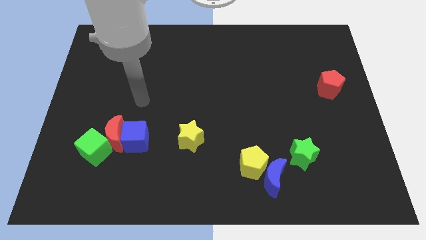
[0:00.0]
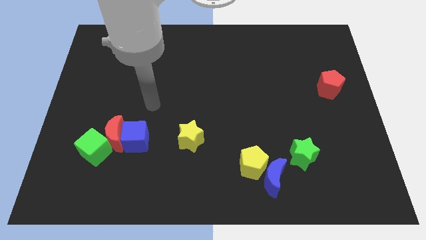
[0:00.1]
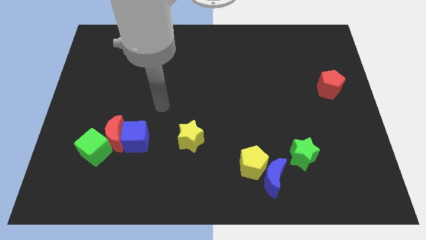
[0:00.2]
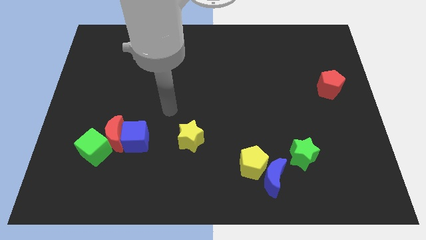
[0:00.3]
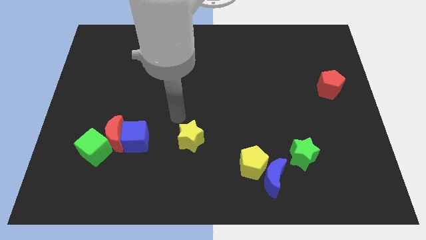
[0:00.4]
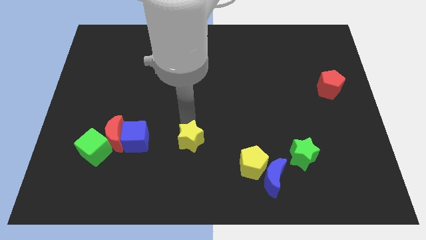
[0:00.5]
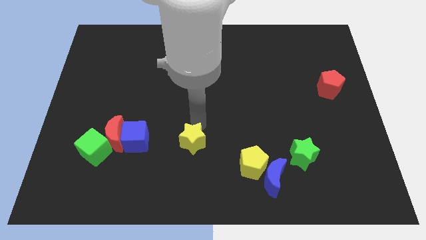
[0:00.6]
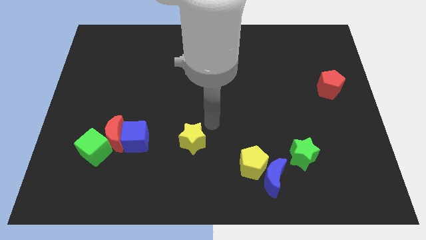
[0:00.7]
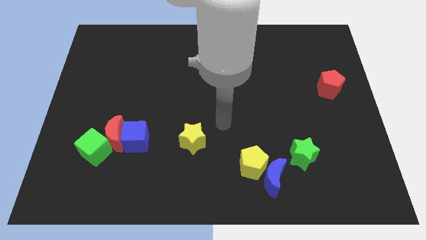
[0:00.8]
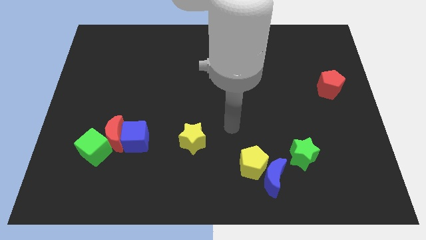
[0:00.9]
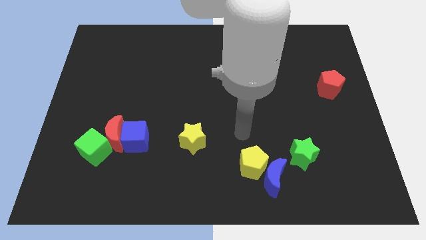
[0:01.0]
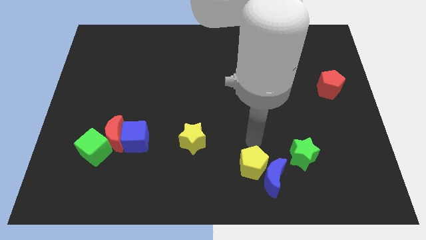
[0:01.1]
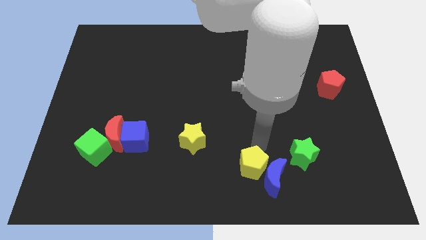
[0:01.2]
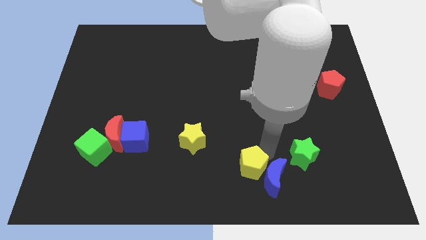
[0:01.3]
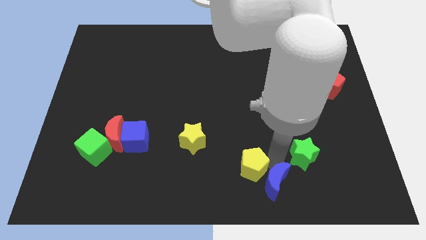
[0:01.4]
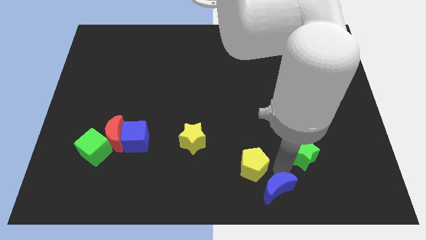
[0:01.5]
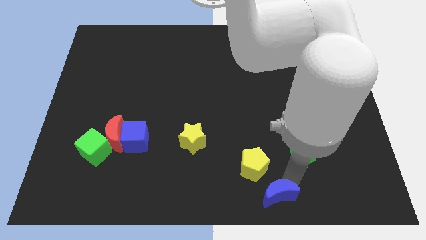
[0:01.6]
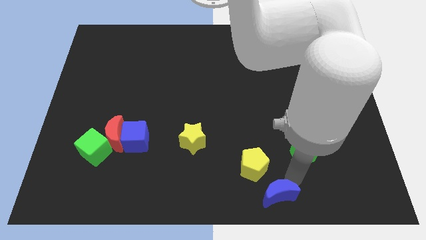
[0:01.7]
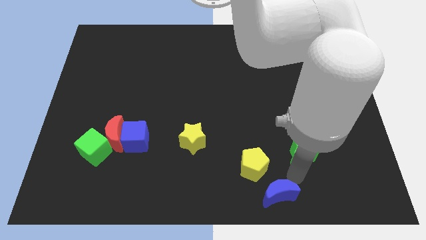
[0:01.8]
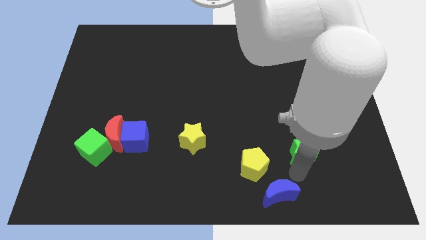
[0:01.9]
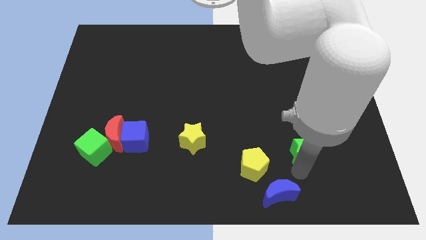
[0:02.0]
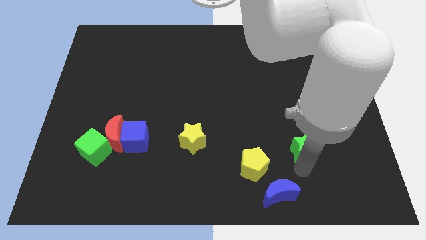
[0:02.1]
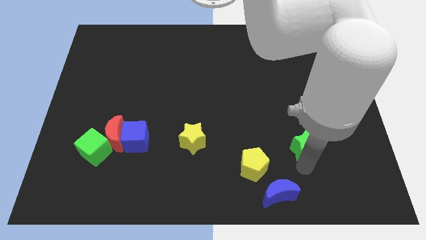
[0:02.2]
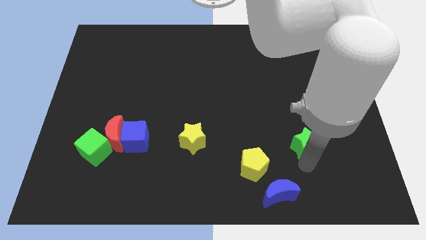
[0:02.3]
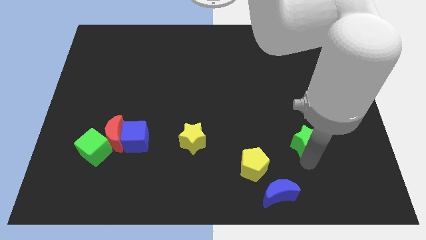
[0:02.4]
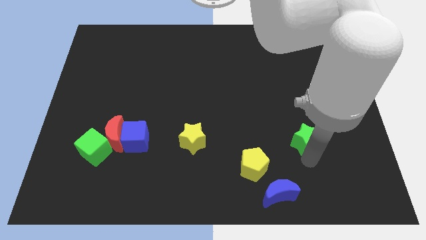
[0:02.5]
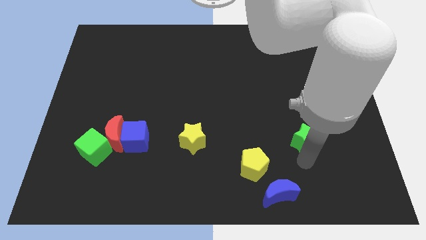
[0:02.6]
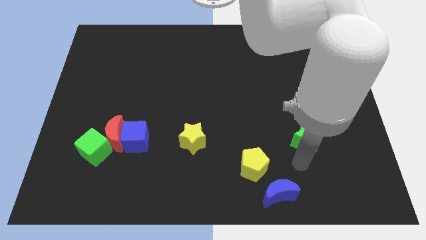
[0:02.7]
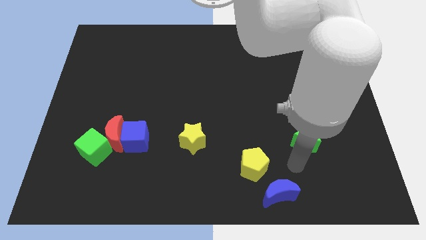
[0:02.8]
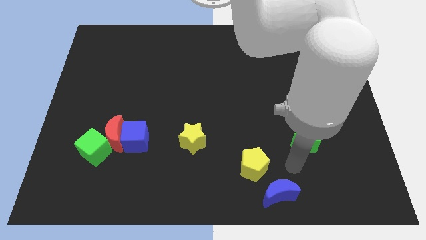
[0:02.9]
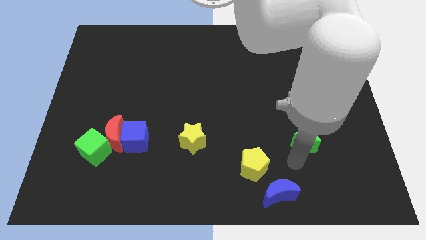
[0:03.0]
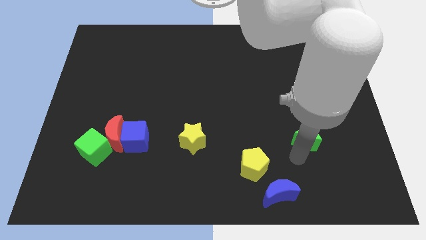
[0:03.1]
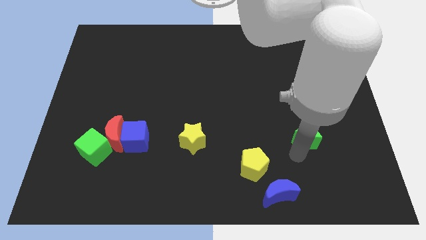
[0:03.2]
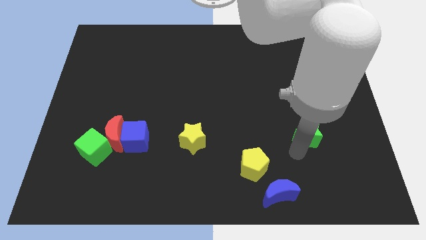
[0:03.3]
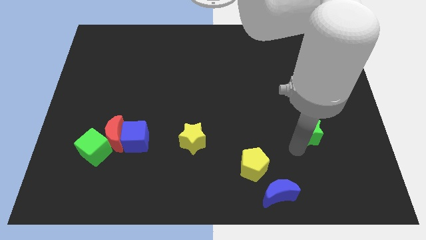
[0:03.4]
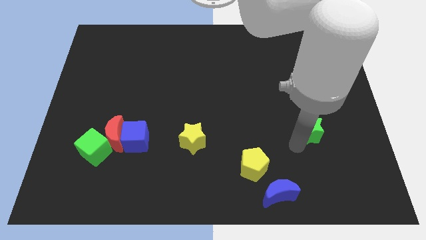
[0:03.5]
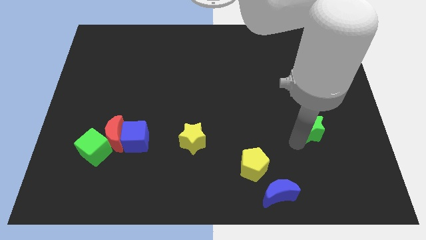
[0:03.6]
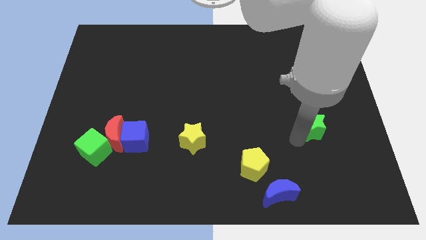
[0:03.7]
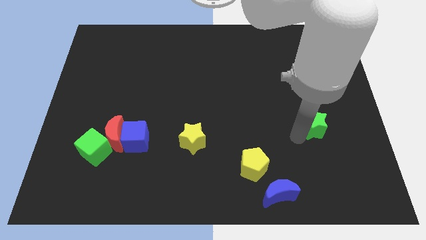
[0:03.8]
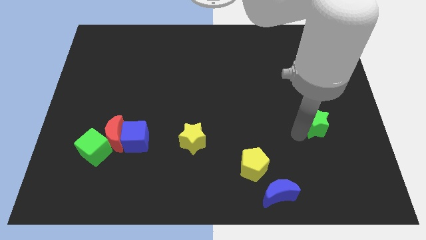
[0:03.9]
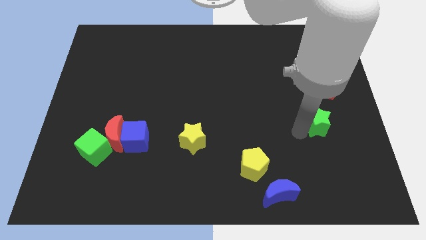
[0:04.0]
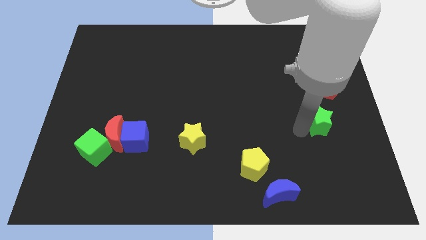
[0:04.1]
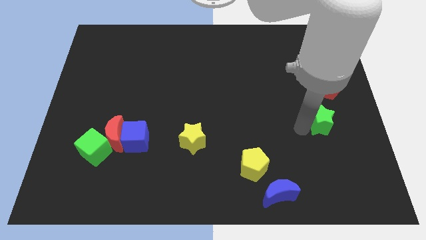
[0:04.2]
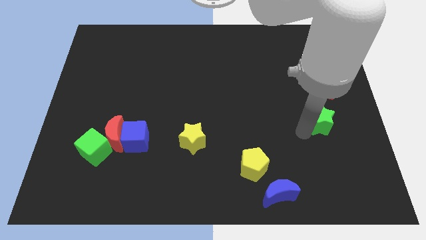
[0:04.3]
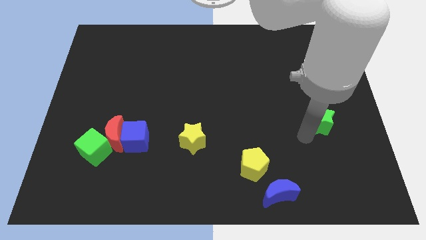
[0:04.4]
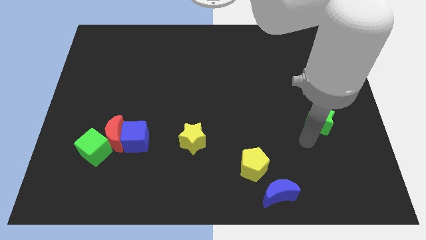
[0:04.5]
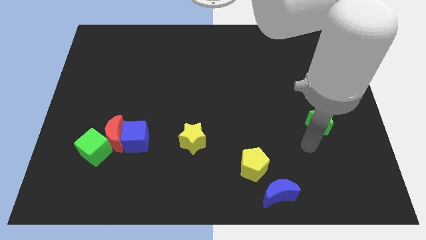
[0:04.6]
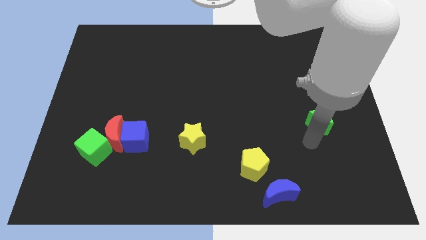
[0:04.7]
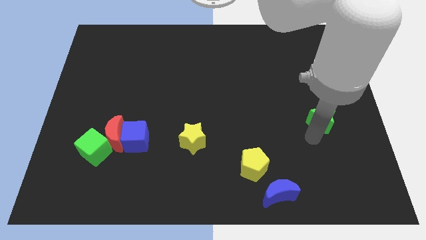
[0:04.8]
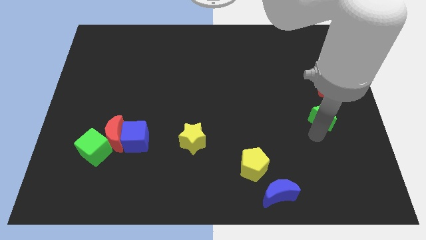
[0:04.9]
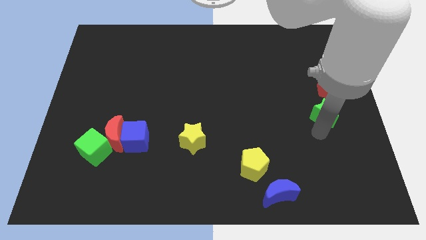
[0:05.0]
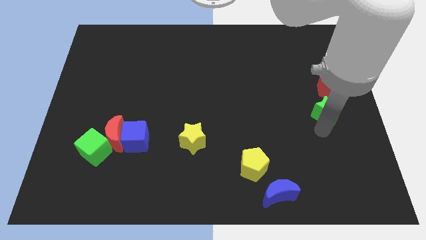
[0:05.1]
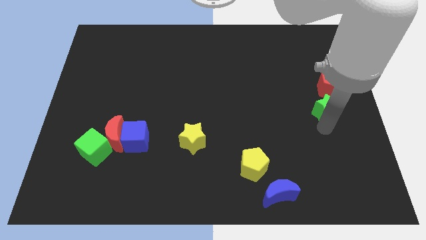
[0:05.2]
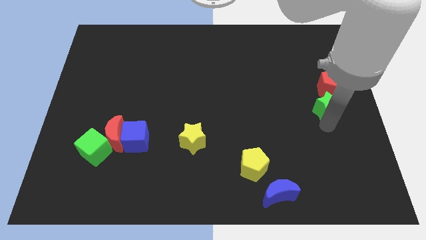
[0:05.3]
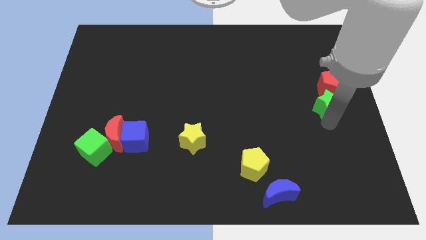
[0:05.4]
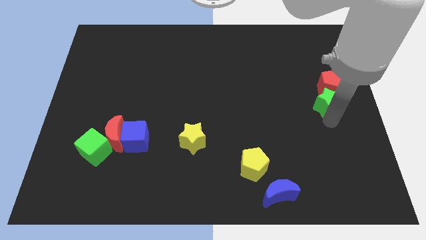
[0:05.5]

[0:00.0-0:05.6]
slide the green star next to the red pentagon

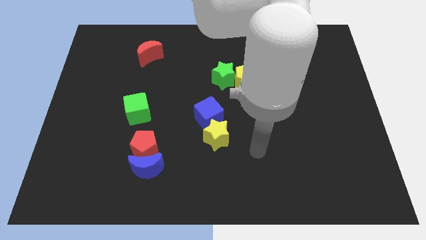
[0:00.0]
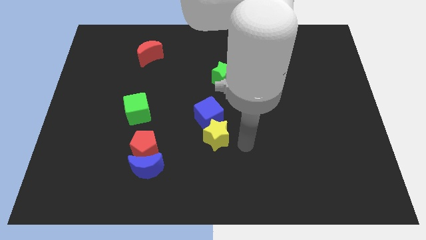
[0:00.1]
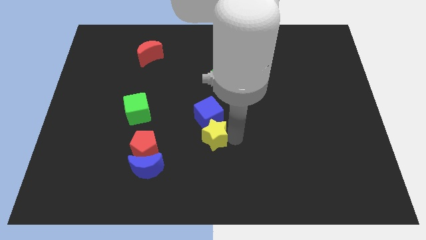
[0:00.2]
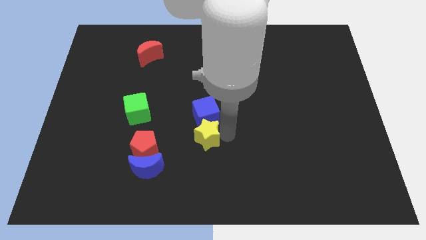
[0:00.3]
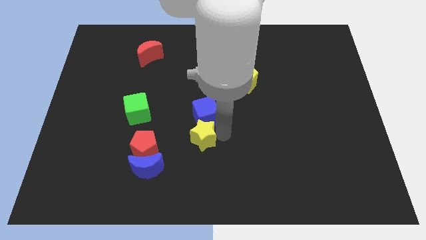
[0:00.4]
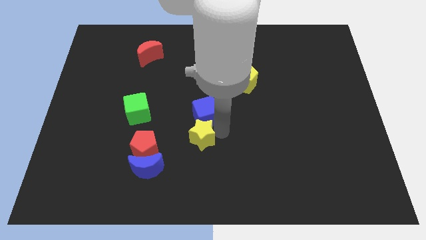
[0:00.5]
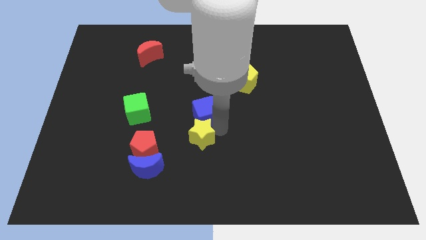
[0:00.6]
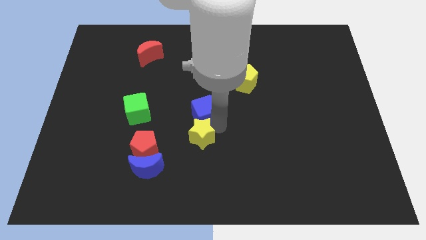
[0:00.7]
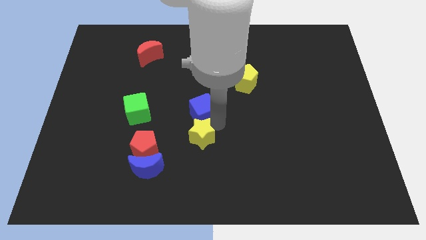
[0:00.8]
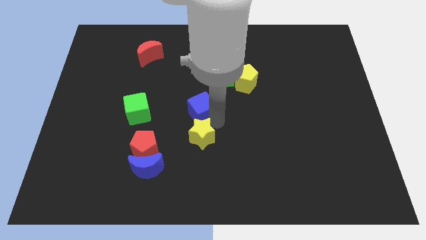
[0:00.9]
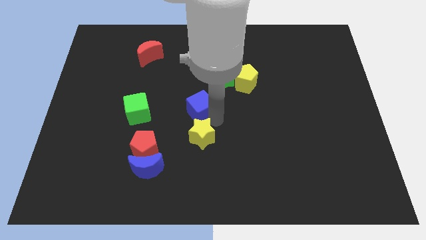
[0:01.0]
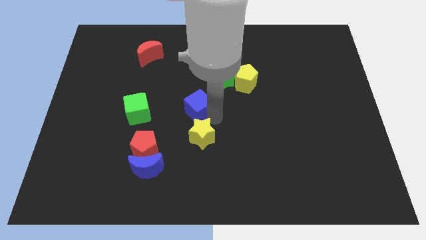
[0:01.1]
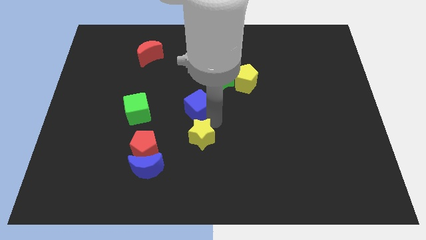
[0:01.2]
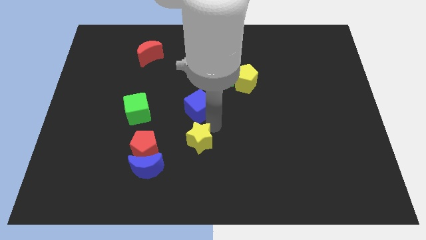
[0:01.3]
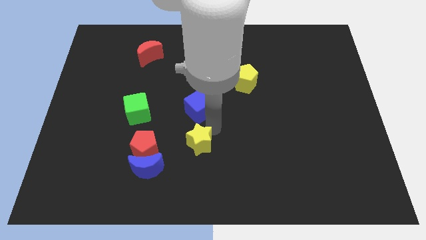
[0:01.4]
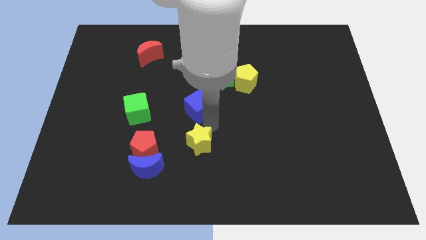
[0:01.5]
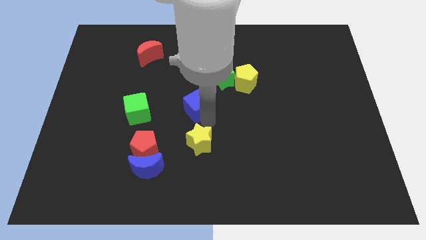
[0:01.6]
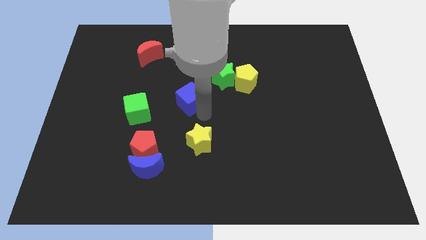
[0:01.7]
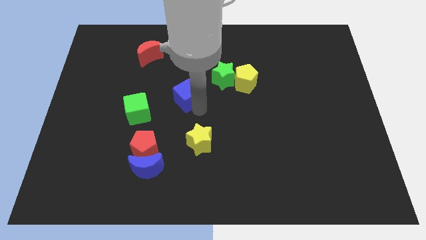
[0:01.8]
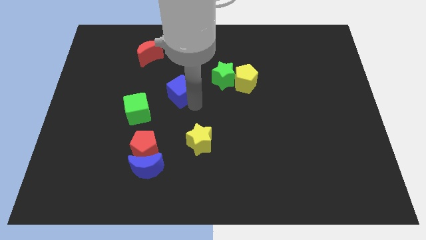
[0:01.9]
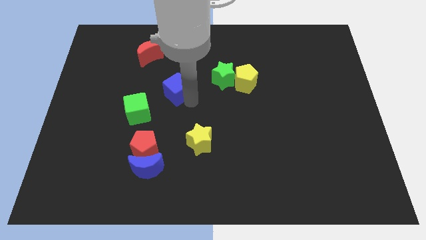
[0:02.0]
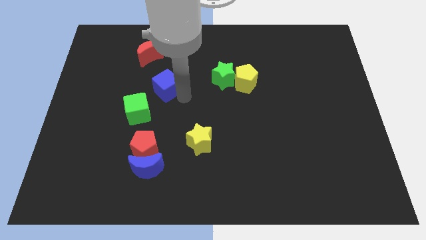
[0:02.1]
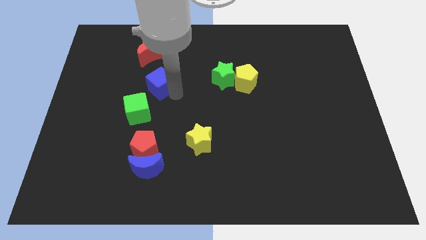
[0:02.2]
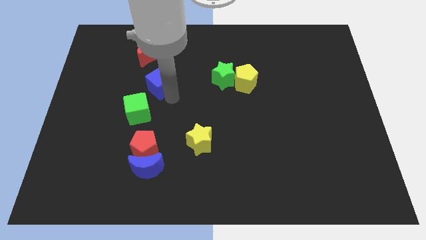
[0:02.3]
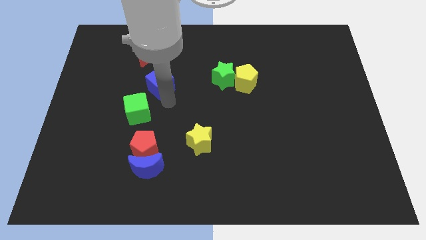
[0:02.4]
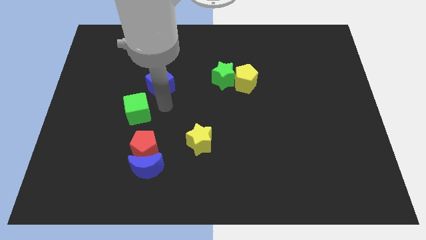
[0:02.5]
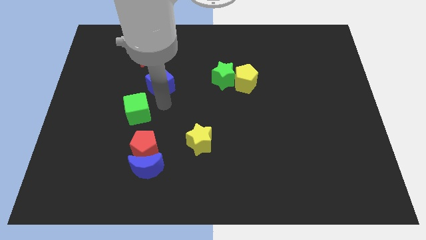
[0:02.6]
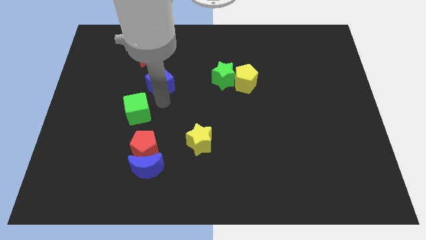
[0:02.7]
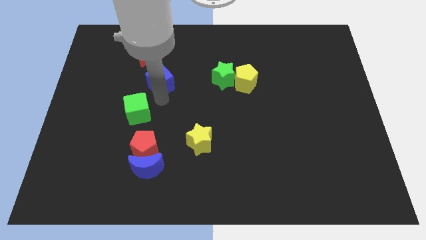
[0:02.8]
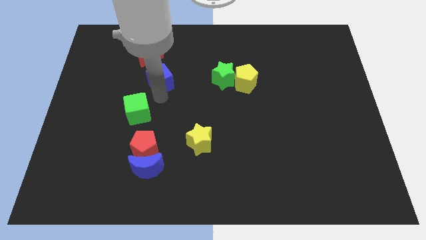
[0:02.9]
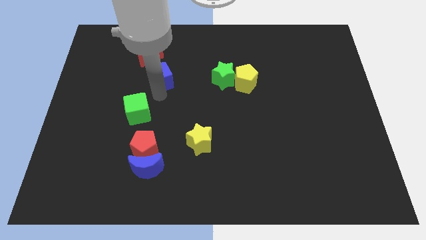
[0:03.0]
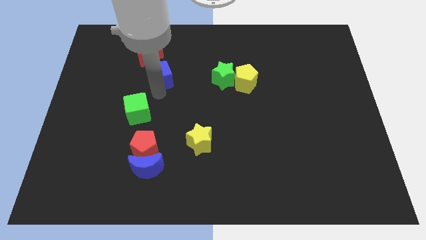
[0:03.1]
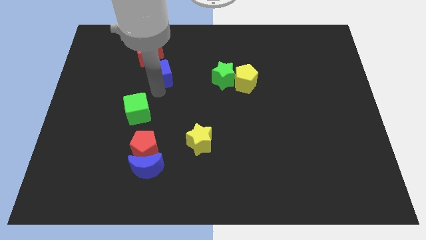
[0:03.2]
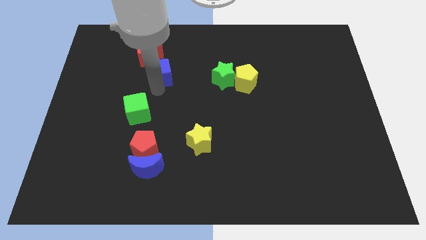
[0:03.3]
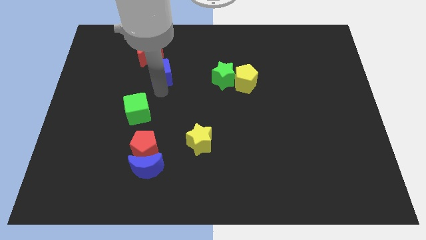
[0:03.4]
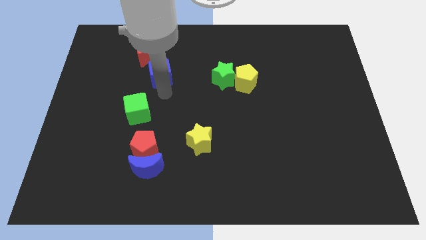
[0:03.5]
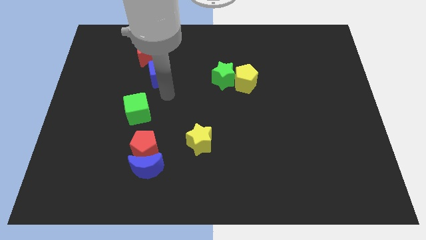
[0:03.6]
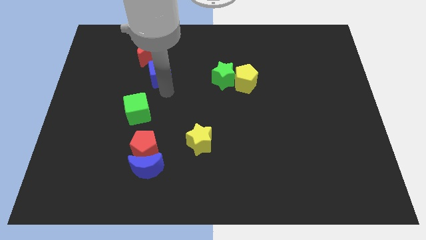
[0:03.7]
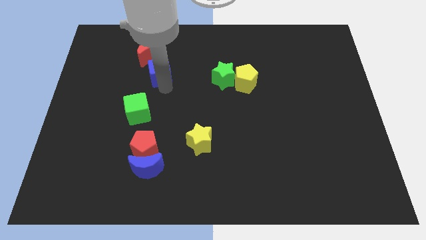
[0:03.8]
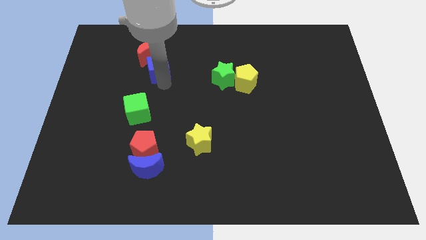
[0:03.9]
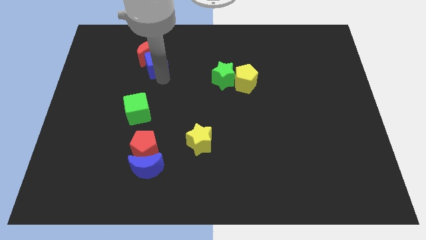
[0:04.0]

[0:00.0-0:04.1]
put the blue cube towards the red moon
